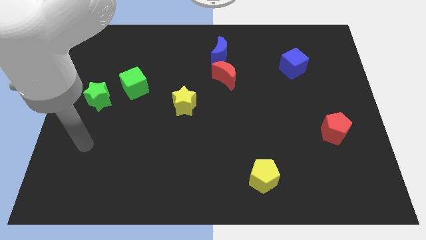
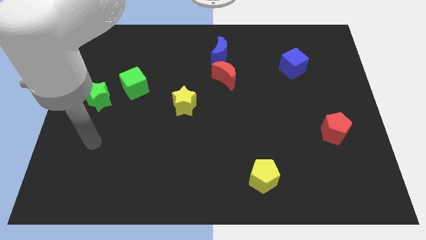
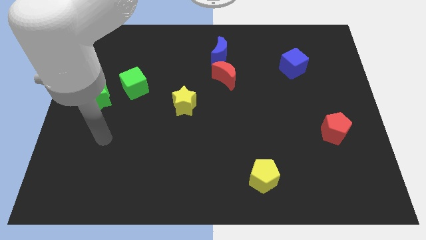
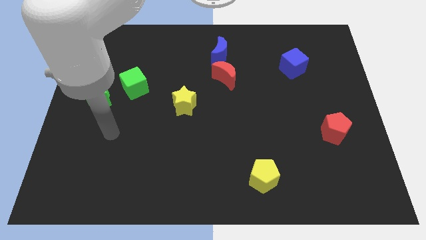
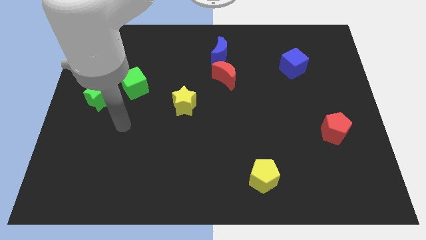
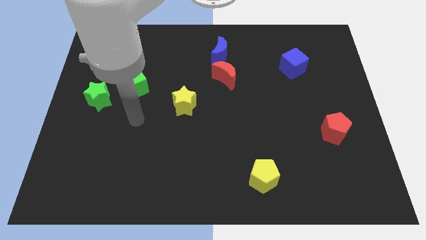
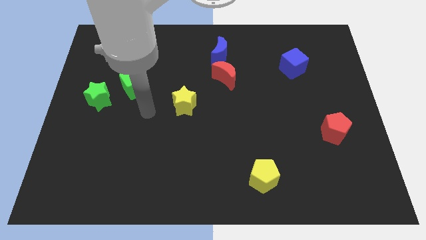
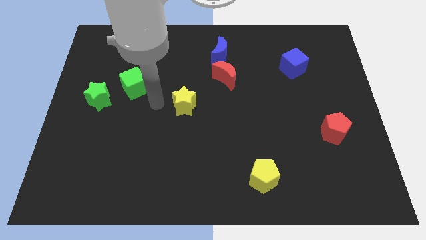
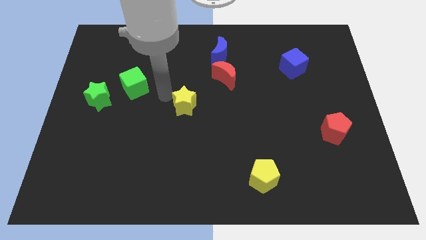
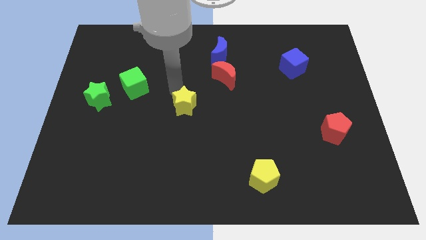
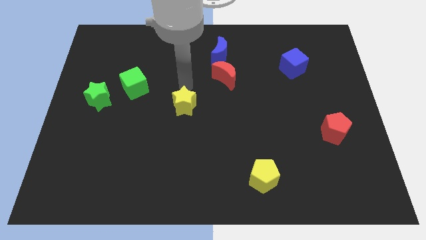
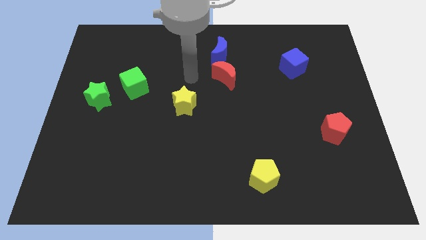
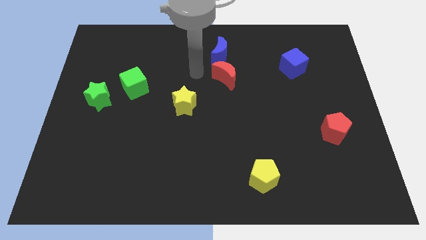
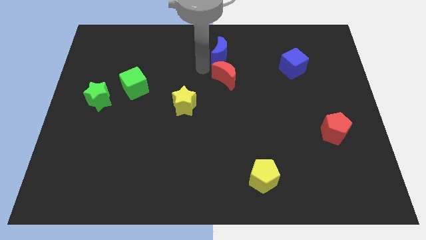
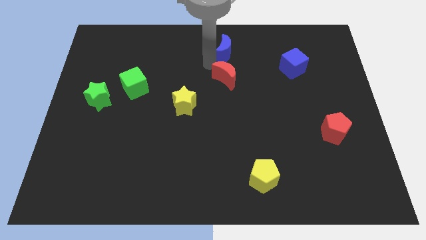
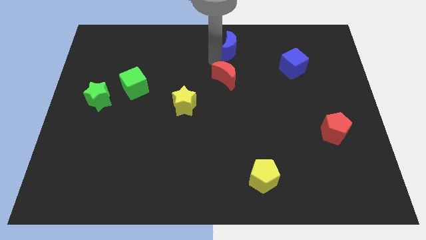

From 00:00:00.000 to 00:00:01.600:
pull the red moon apart from the blue moon

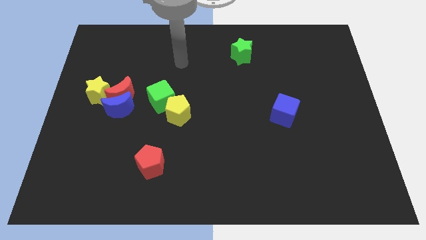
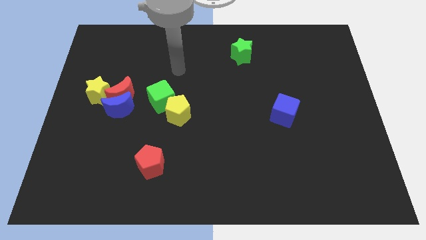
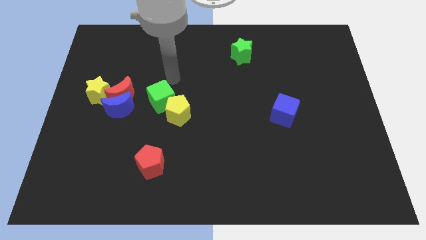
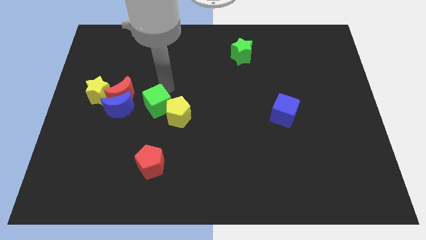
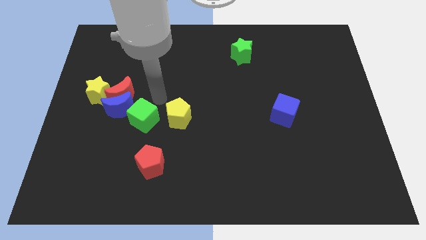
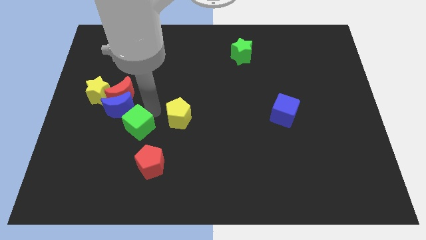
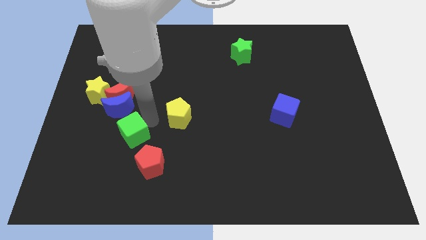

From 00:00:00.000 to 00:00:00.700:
move the yellow pentagon away from the green cube

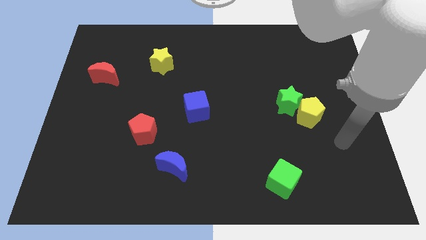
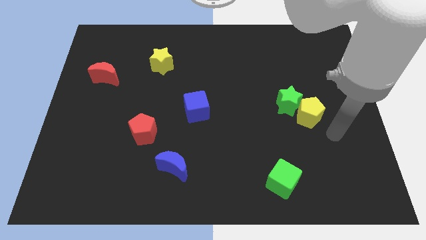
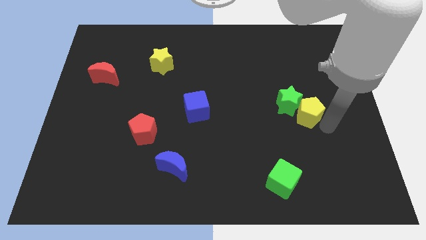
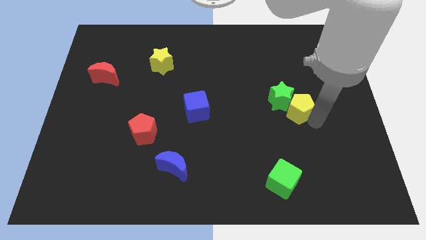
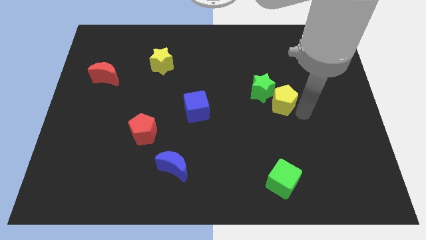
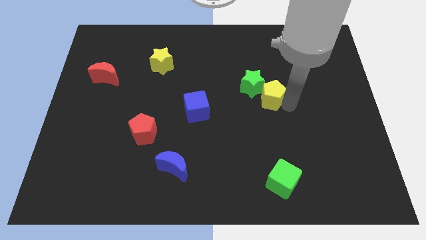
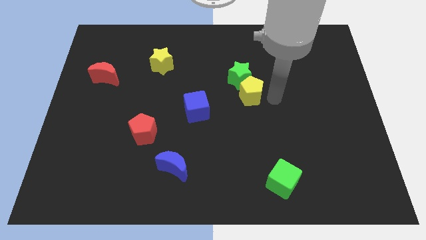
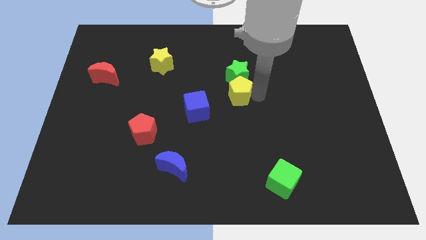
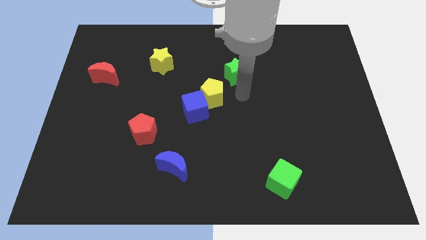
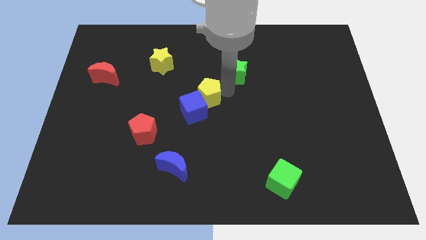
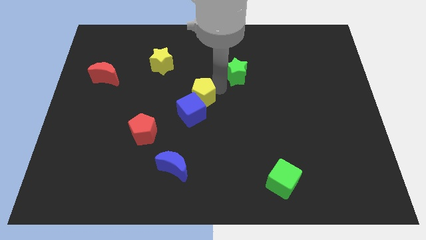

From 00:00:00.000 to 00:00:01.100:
separate the green star from the yellow pentagon

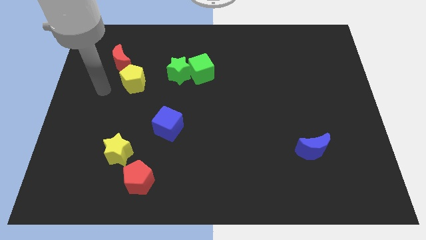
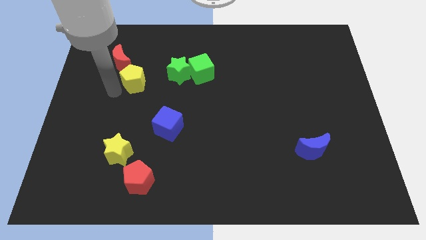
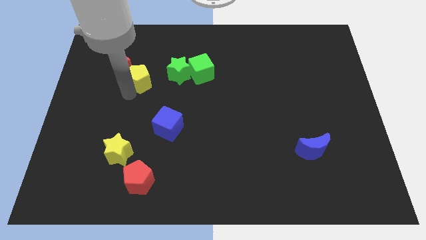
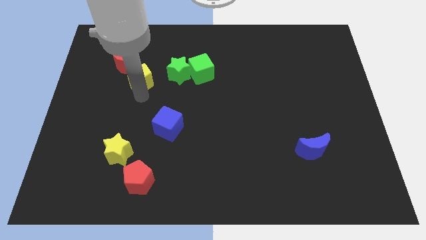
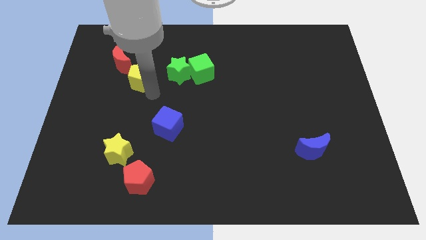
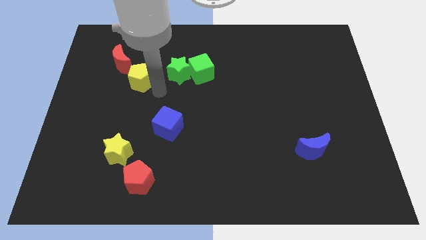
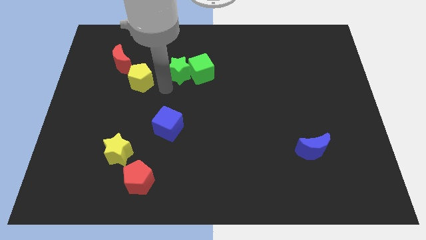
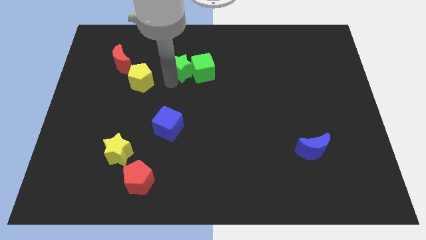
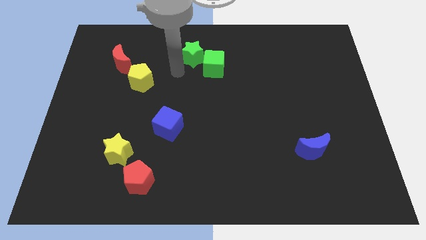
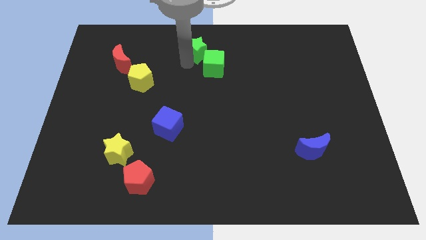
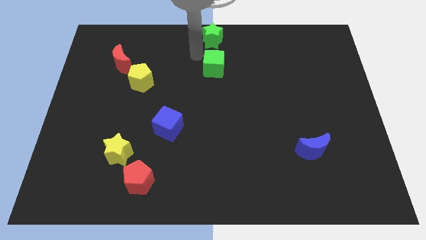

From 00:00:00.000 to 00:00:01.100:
move the green cube away from the green star

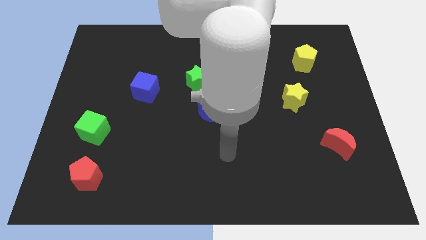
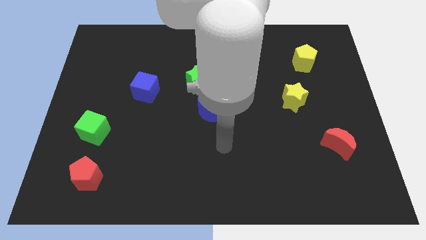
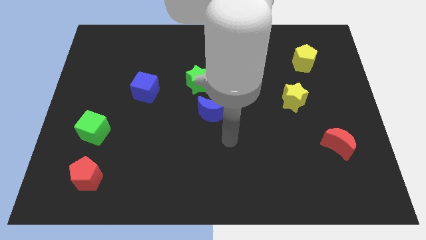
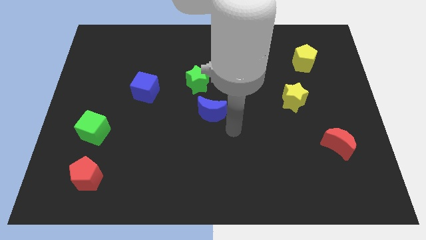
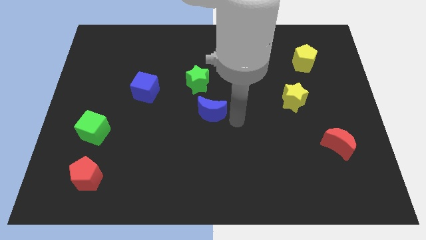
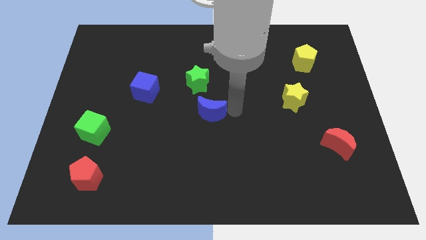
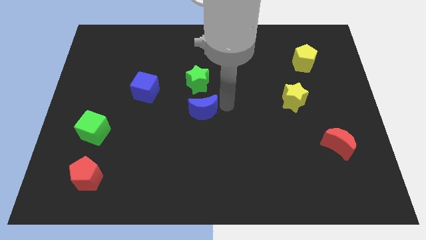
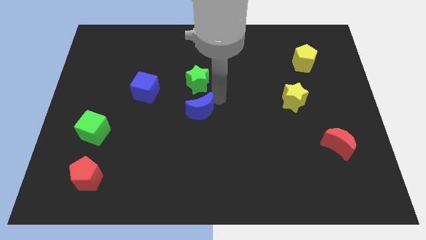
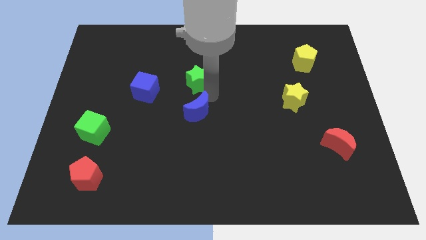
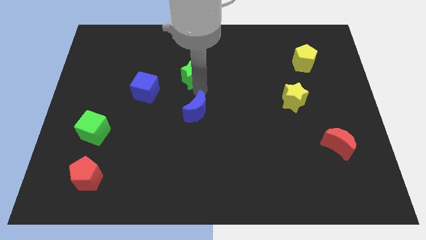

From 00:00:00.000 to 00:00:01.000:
move the blue moon away from the green star

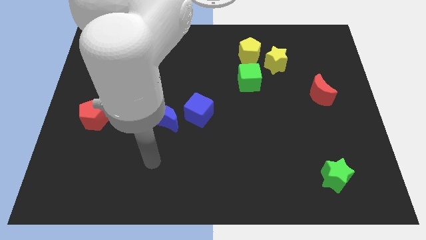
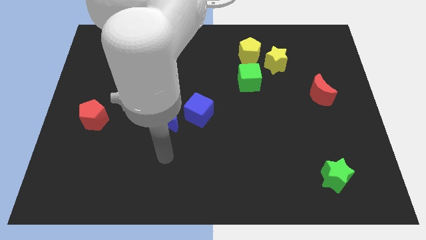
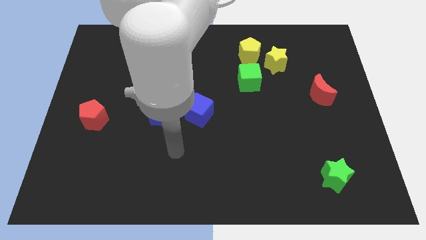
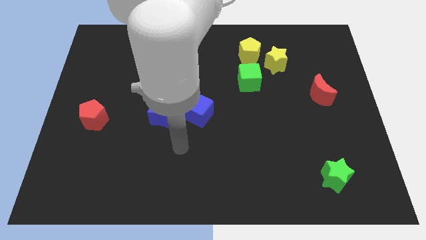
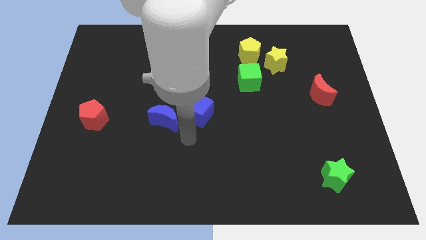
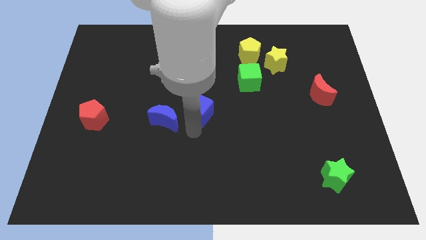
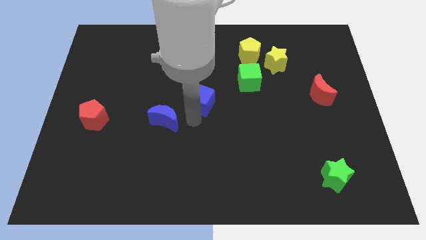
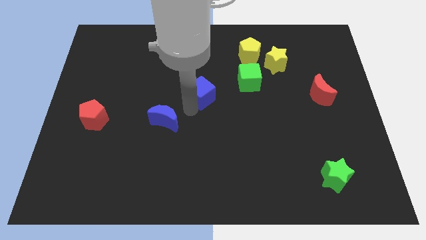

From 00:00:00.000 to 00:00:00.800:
move the blue moon away from the blue cube

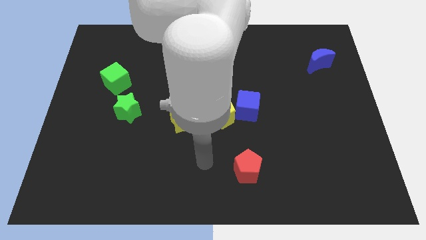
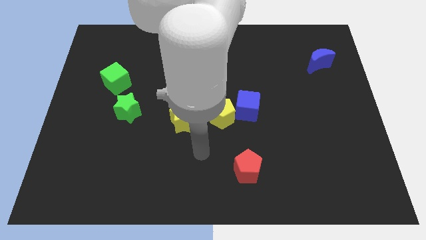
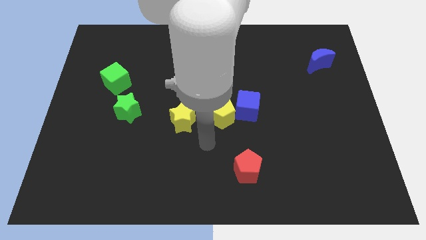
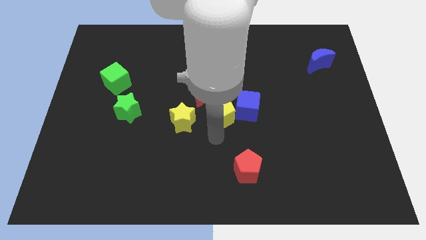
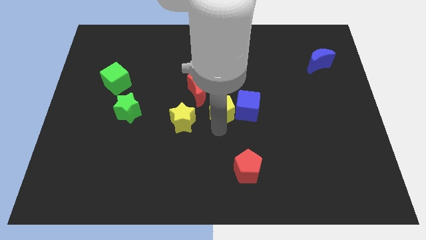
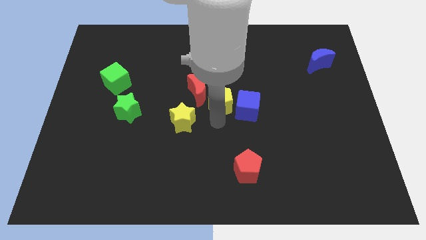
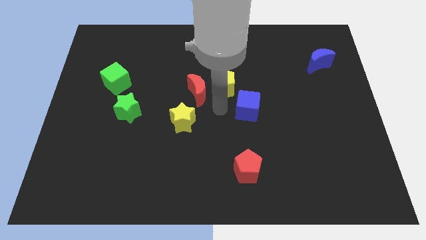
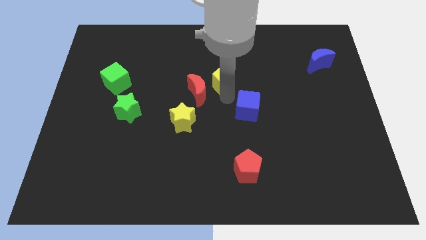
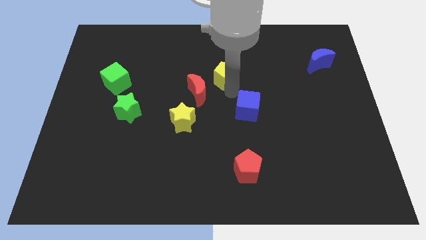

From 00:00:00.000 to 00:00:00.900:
pull the blue cube apart from the yellow pentagon

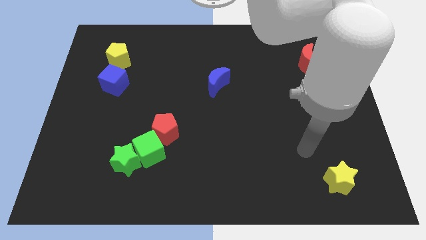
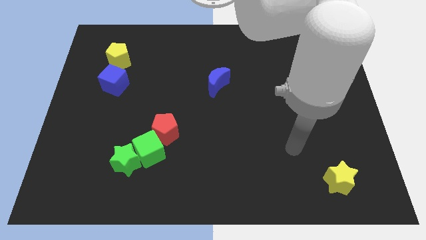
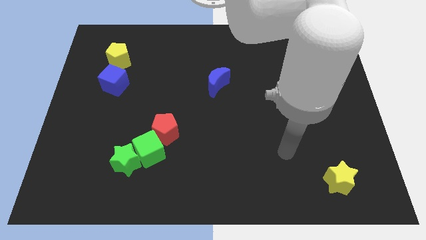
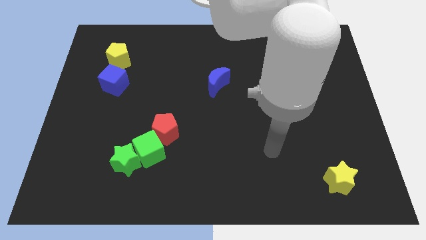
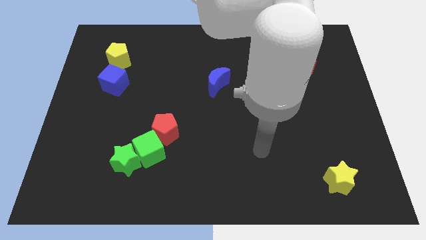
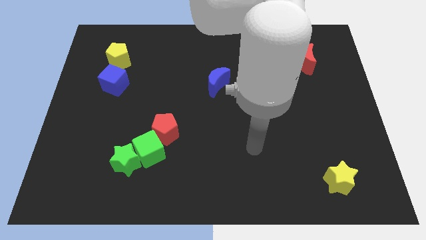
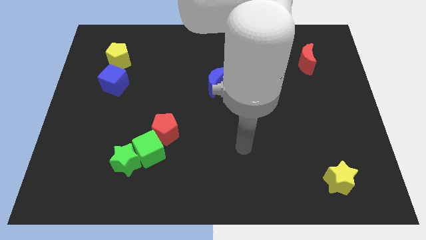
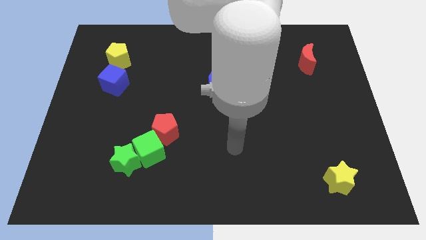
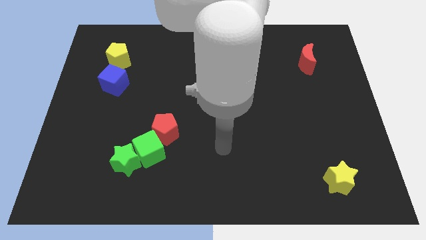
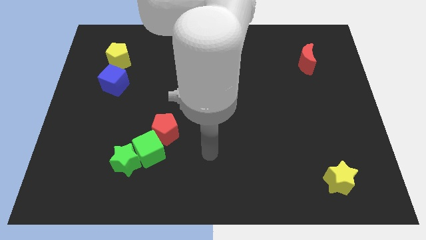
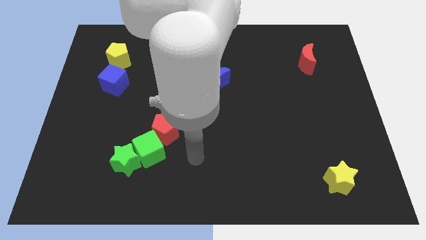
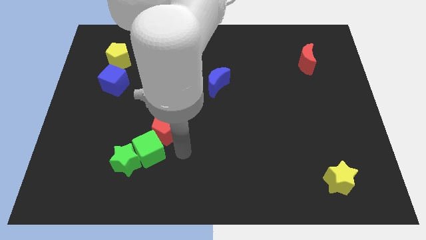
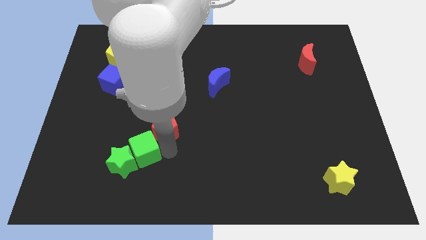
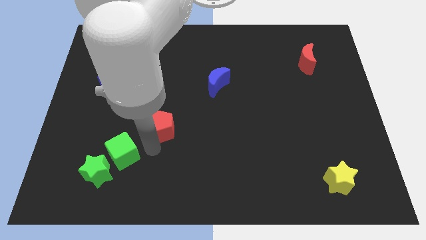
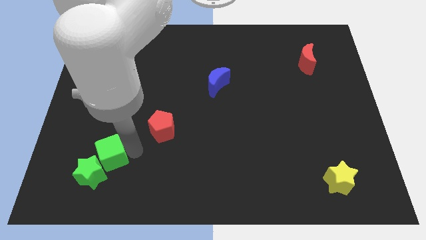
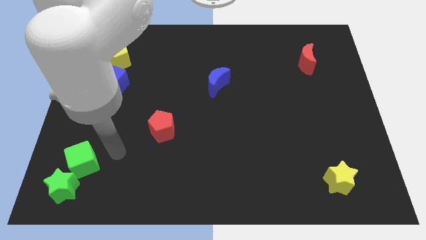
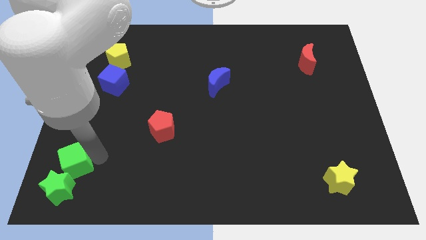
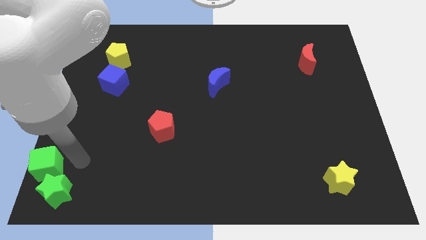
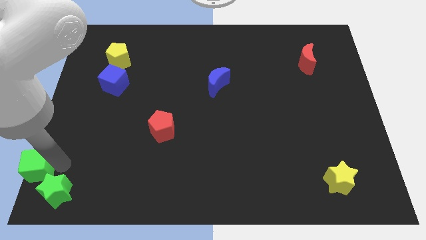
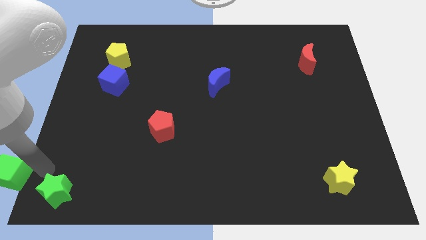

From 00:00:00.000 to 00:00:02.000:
pull the green star apart from the green cube
